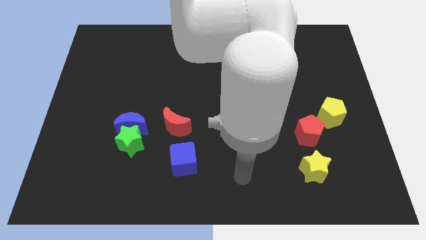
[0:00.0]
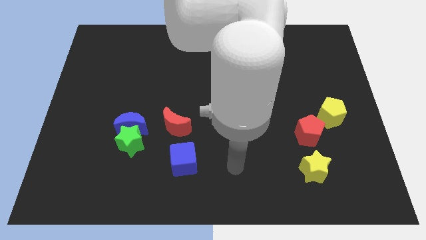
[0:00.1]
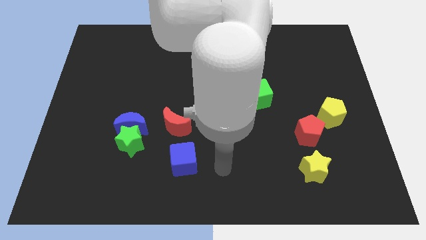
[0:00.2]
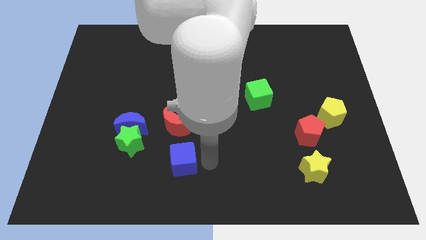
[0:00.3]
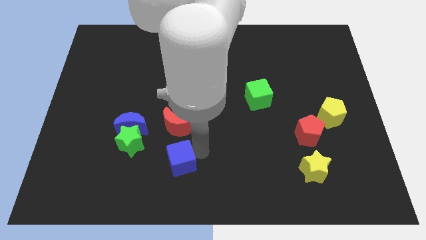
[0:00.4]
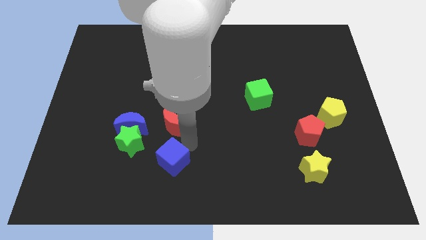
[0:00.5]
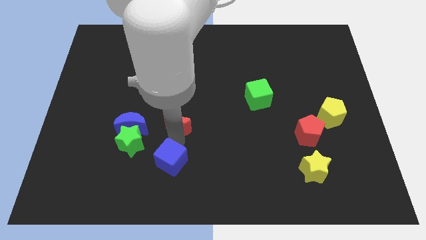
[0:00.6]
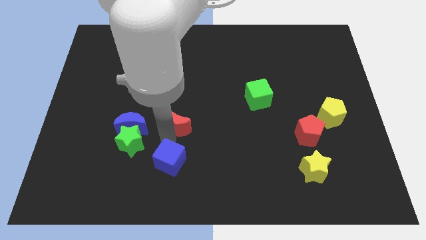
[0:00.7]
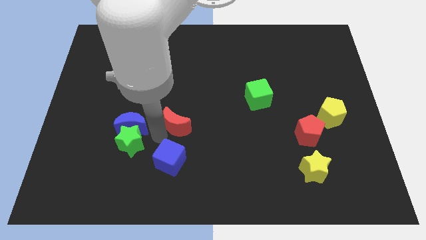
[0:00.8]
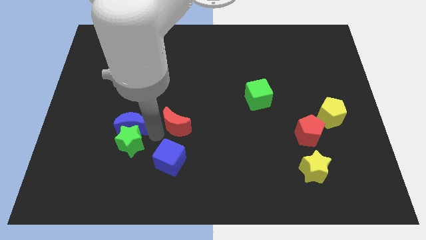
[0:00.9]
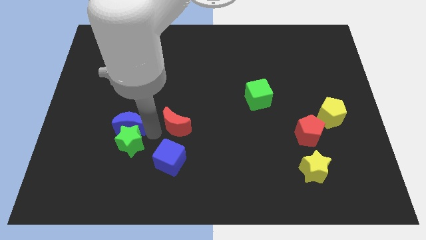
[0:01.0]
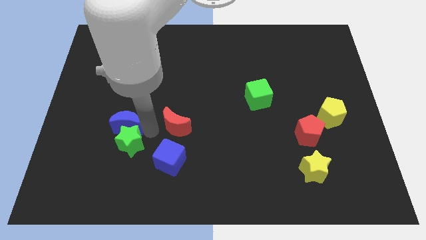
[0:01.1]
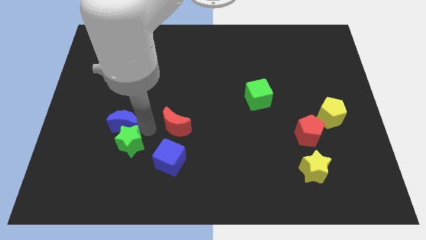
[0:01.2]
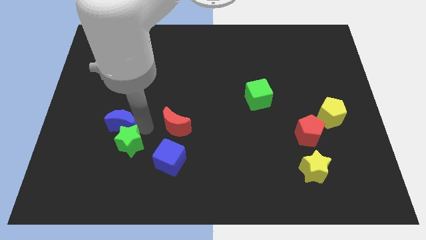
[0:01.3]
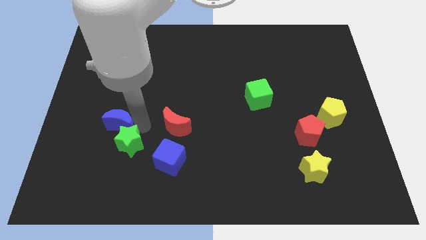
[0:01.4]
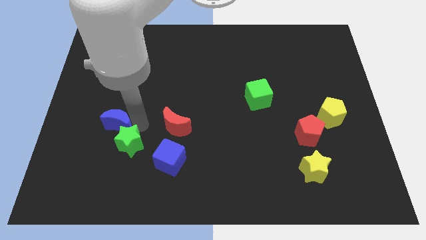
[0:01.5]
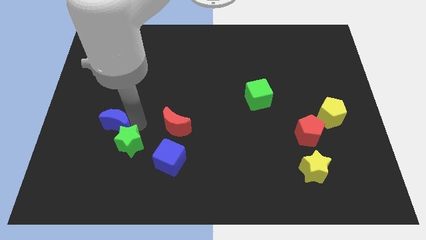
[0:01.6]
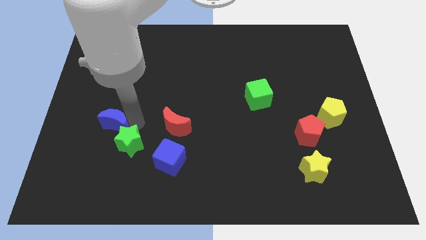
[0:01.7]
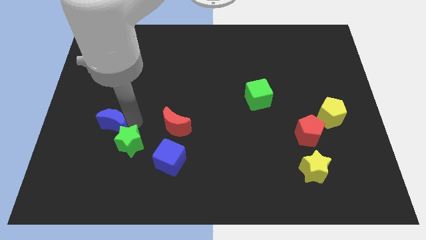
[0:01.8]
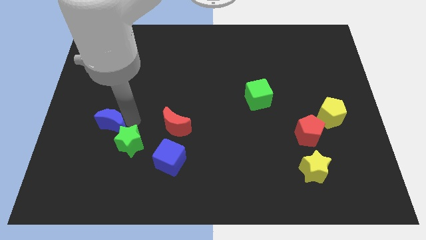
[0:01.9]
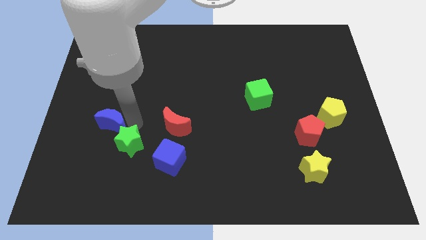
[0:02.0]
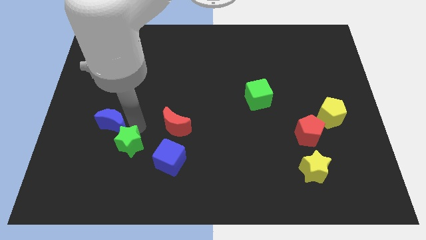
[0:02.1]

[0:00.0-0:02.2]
separate the blue moon from the green star and red moon

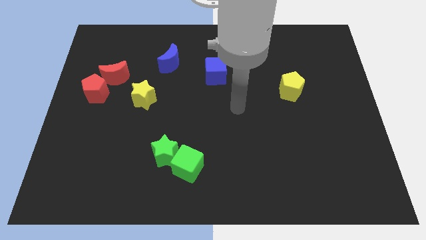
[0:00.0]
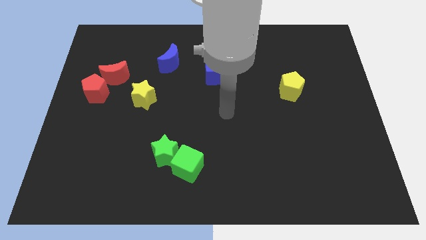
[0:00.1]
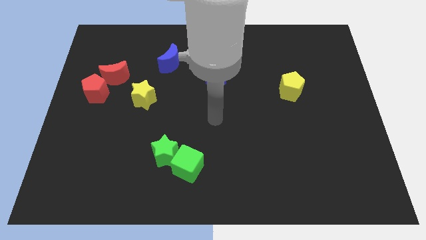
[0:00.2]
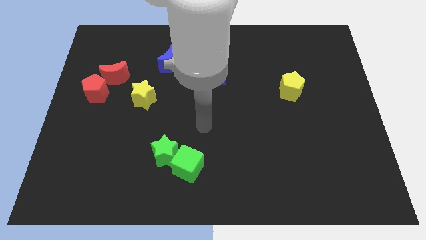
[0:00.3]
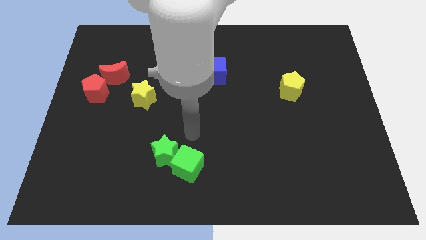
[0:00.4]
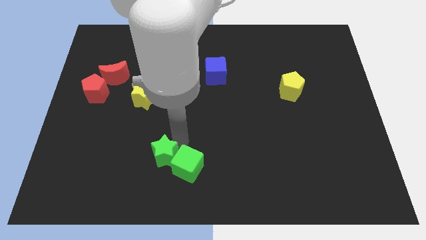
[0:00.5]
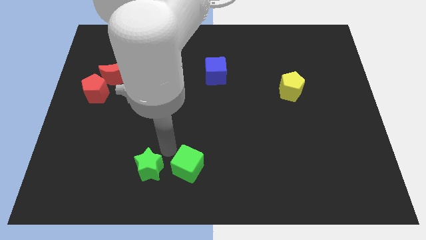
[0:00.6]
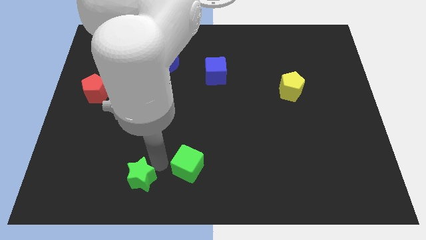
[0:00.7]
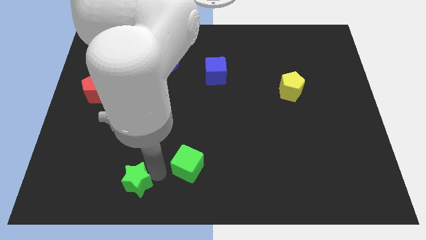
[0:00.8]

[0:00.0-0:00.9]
separate the green cube from the green star

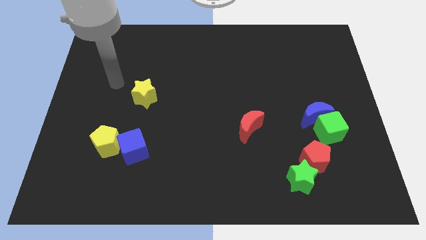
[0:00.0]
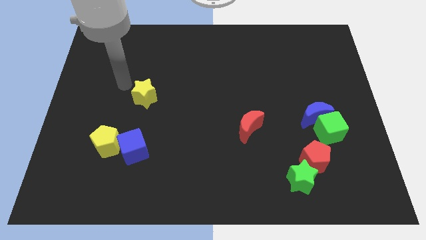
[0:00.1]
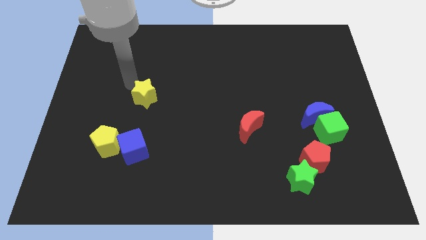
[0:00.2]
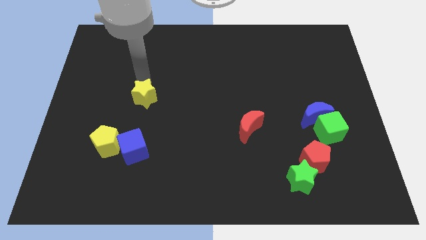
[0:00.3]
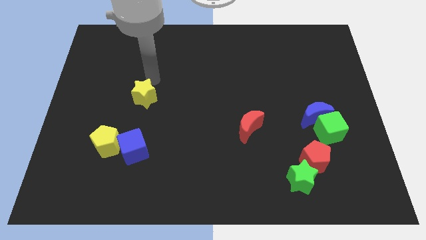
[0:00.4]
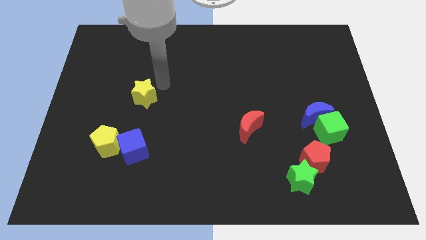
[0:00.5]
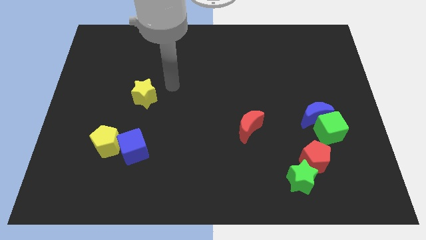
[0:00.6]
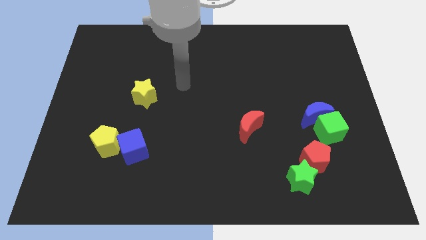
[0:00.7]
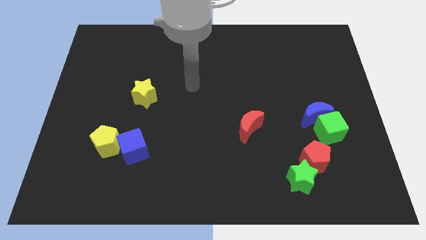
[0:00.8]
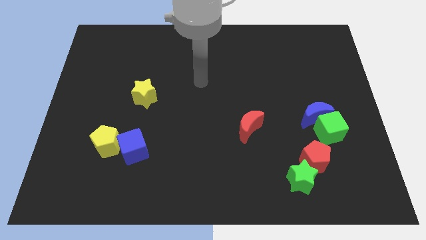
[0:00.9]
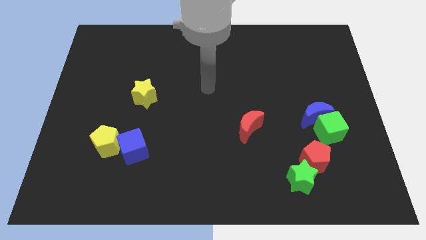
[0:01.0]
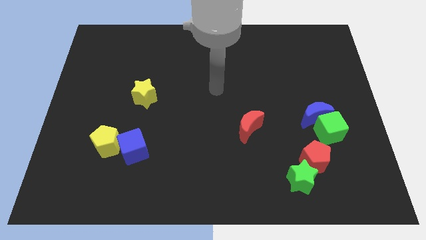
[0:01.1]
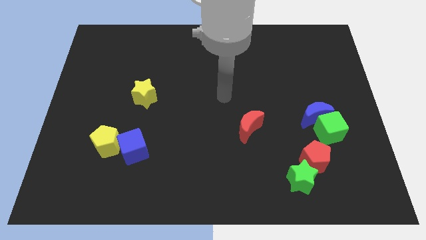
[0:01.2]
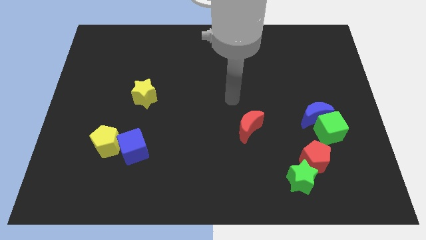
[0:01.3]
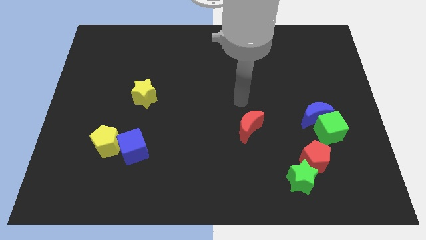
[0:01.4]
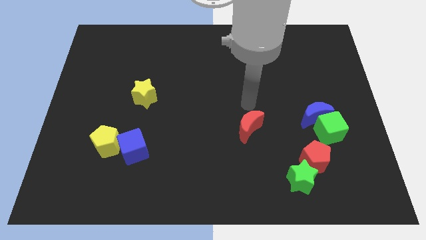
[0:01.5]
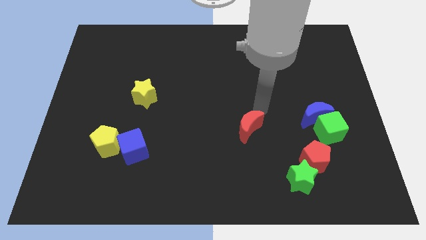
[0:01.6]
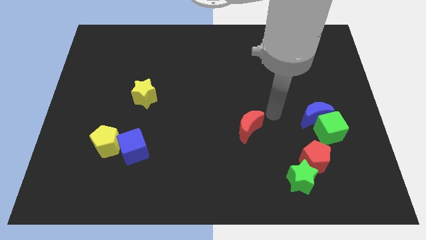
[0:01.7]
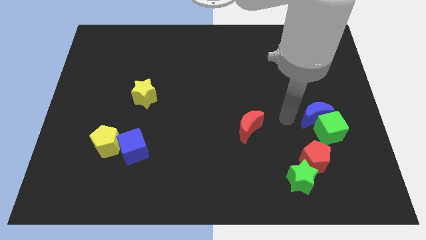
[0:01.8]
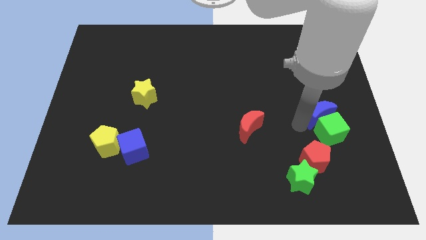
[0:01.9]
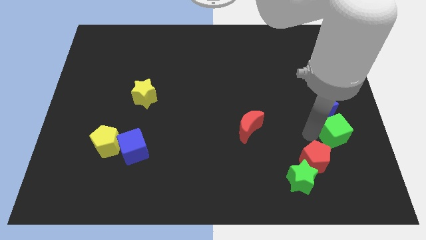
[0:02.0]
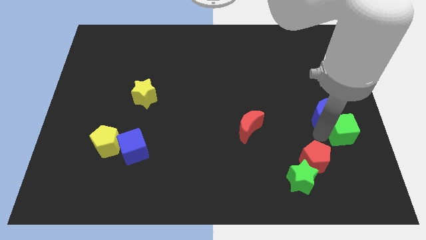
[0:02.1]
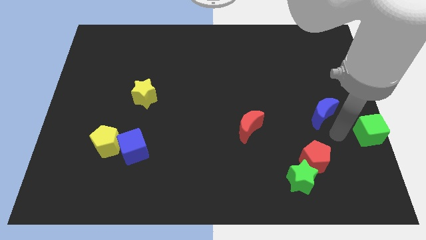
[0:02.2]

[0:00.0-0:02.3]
pull the blue moon apart from the green cube

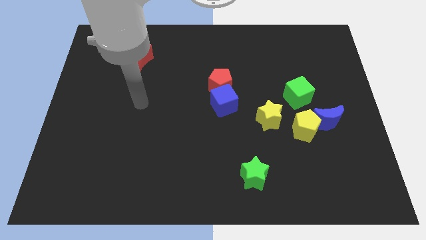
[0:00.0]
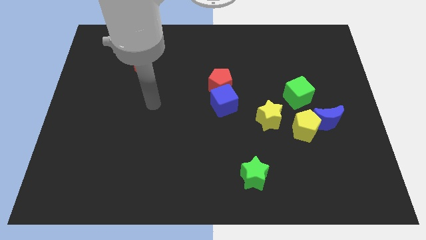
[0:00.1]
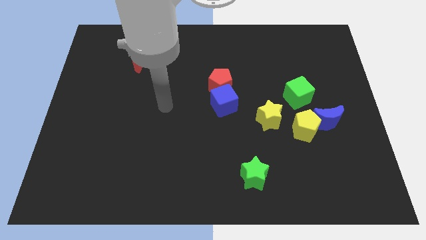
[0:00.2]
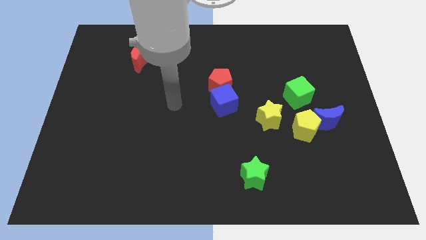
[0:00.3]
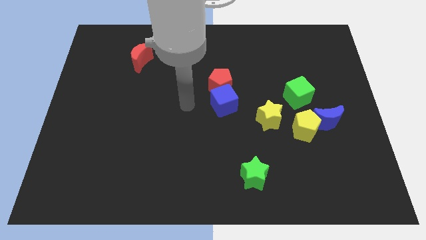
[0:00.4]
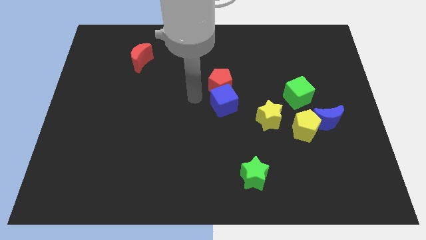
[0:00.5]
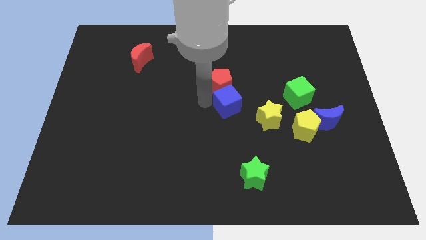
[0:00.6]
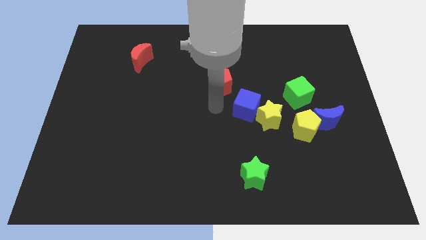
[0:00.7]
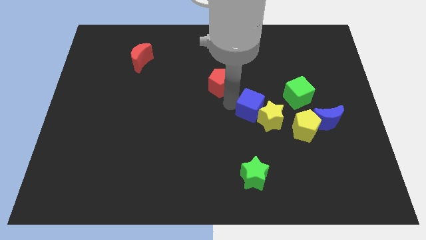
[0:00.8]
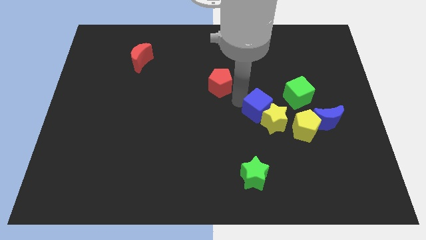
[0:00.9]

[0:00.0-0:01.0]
move the red pentagon away from the blue cube

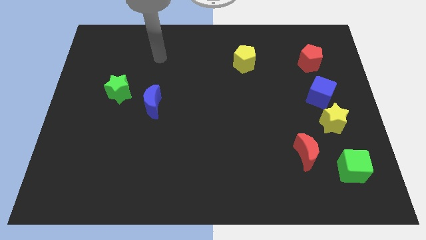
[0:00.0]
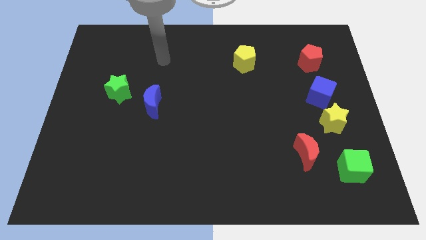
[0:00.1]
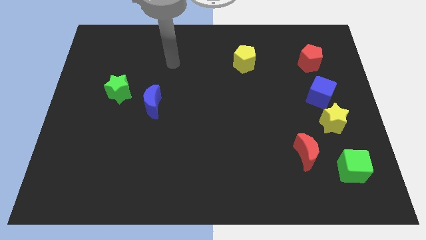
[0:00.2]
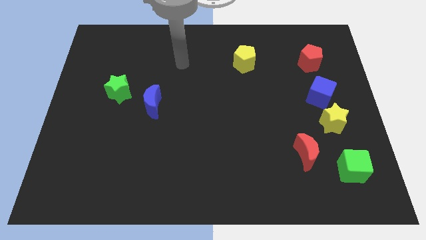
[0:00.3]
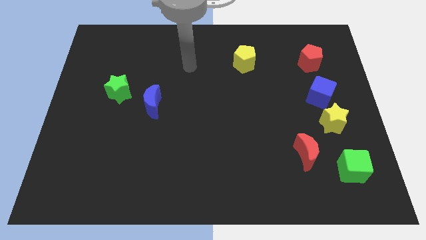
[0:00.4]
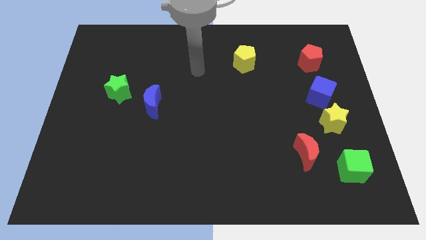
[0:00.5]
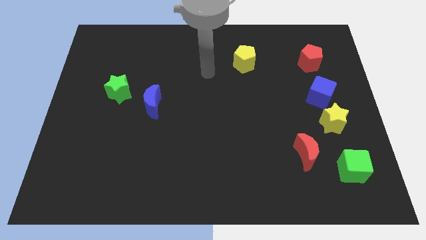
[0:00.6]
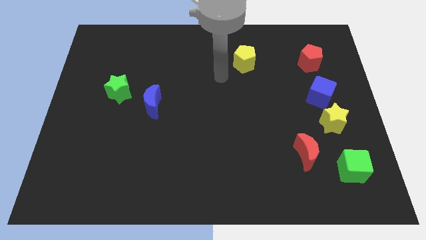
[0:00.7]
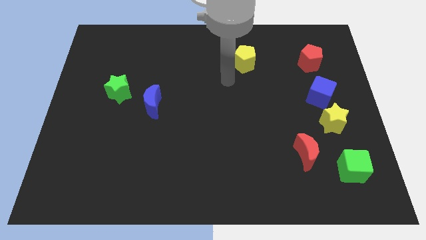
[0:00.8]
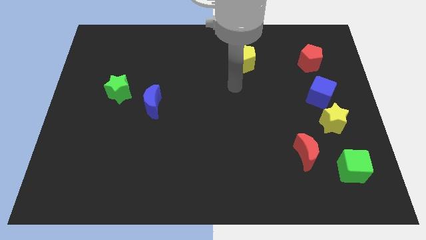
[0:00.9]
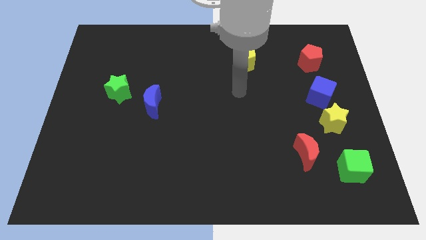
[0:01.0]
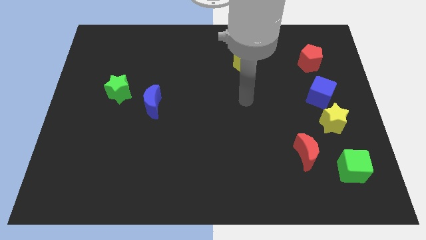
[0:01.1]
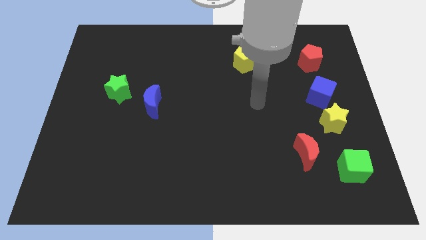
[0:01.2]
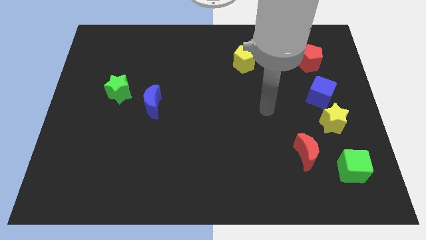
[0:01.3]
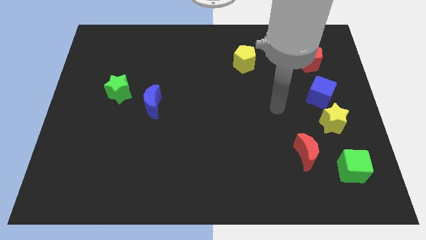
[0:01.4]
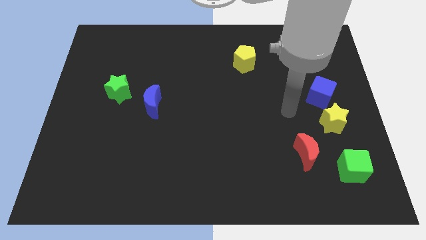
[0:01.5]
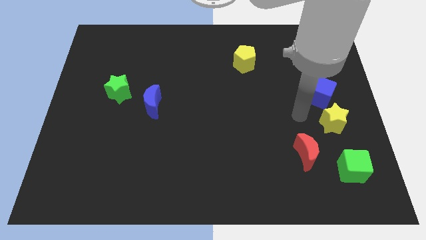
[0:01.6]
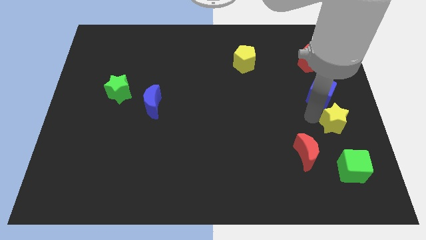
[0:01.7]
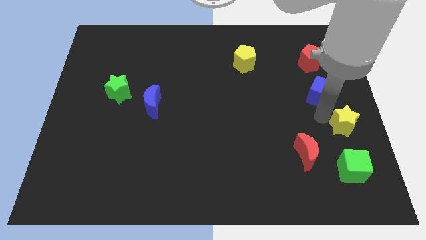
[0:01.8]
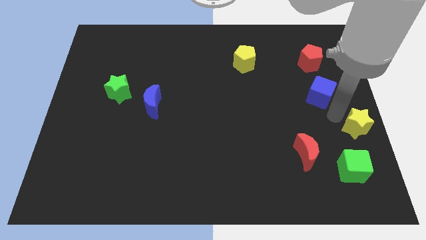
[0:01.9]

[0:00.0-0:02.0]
move the blue cube away from the yellow star

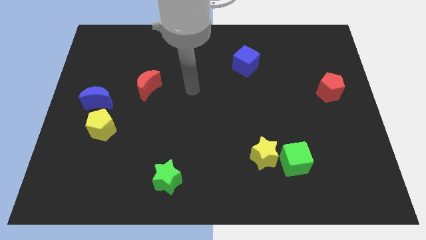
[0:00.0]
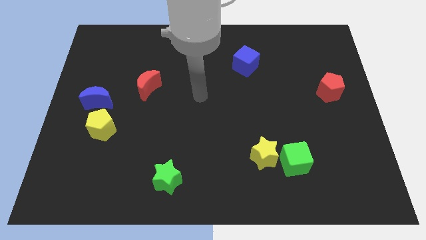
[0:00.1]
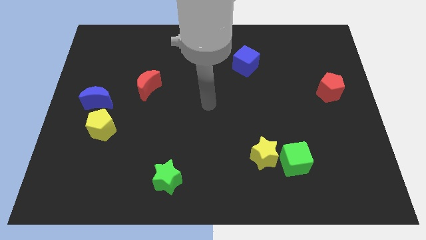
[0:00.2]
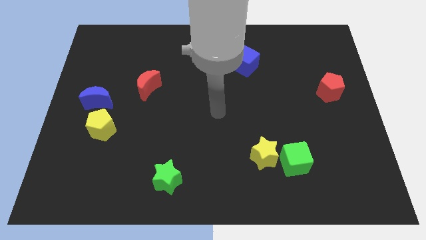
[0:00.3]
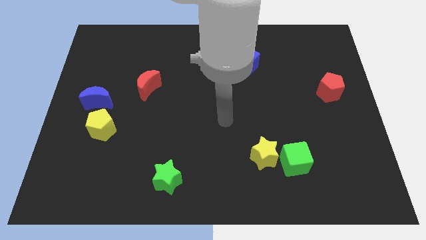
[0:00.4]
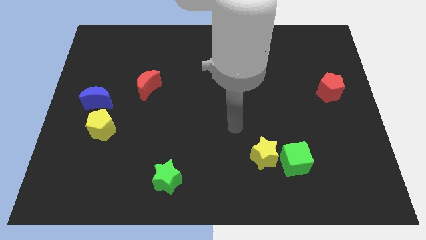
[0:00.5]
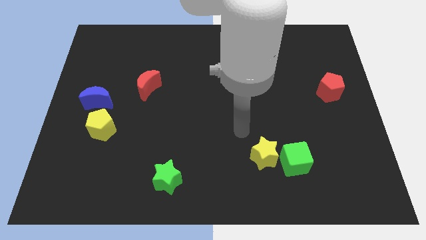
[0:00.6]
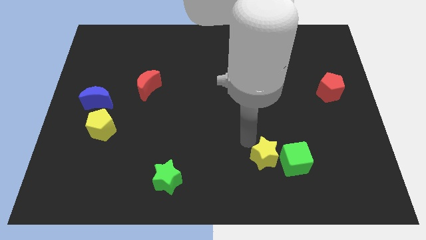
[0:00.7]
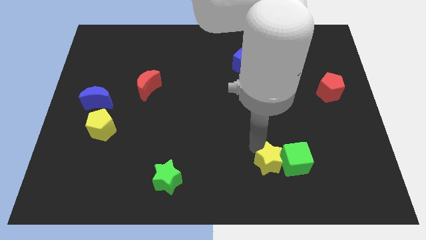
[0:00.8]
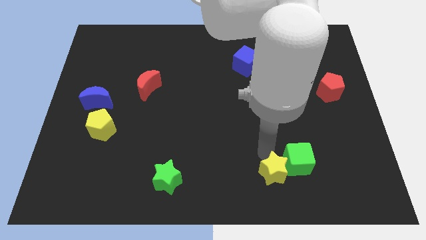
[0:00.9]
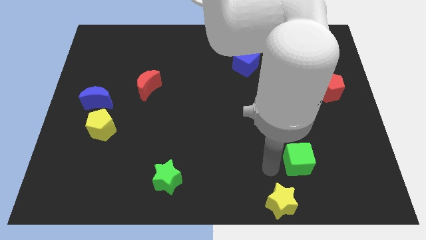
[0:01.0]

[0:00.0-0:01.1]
pull the green cube apart from the yellow star
